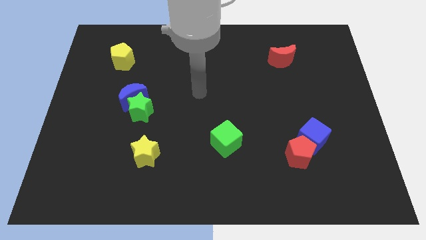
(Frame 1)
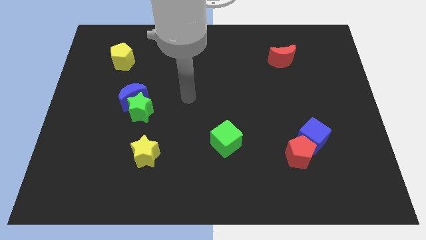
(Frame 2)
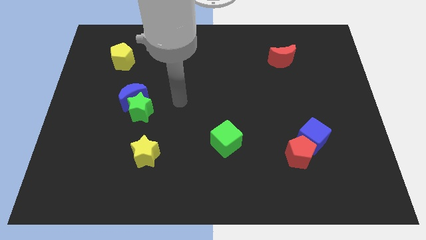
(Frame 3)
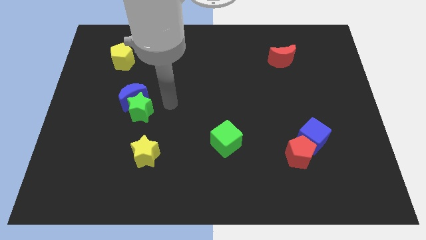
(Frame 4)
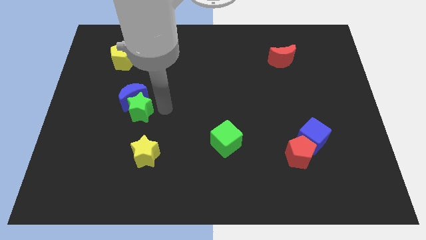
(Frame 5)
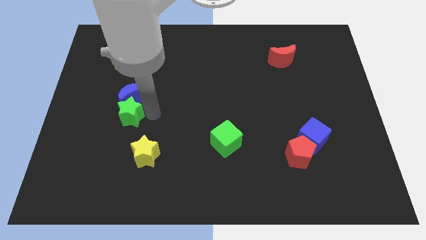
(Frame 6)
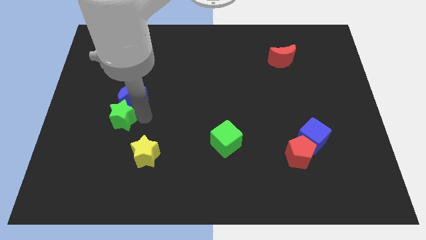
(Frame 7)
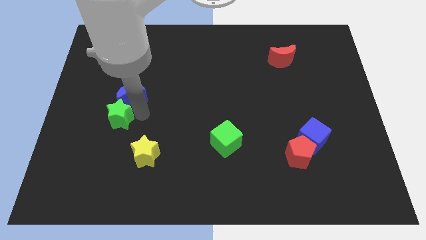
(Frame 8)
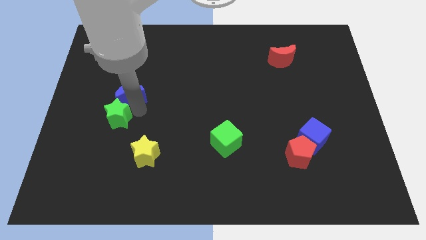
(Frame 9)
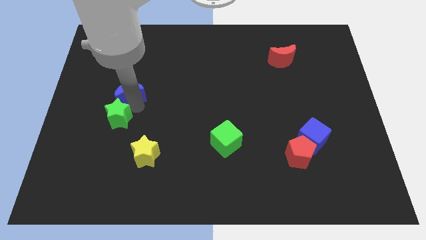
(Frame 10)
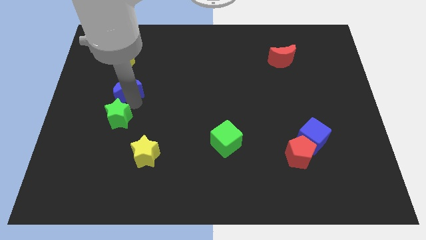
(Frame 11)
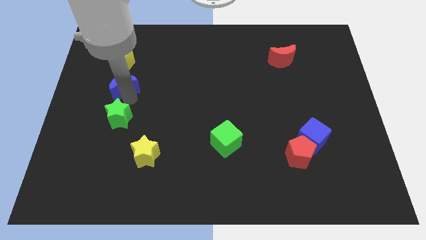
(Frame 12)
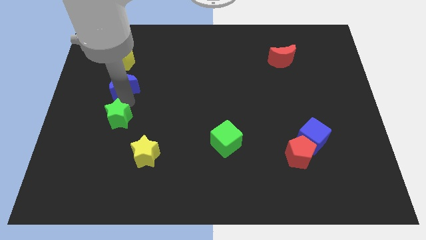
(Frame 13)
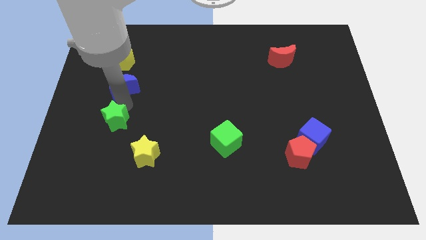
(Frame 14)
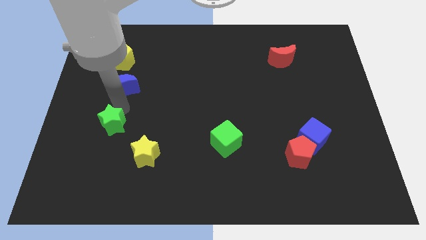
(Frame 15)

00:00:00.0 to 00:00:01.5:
separate the blue moon from the green star

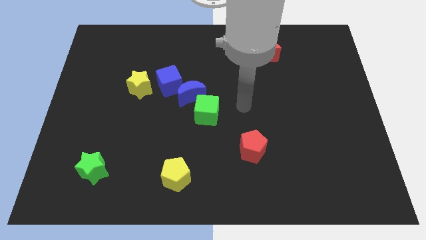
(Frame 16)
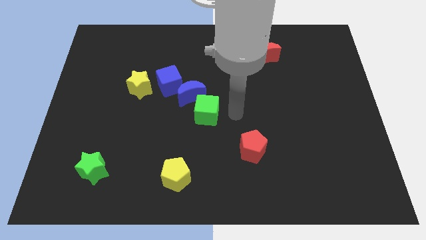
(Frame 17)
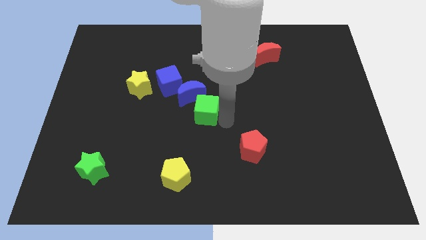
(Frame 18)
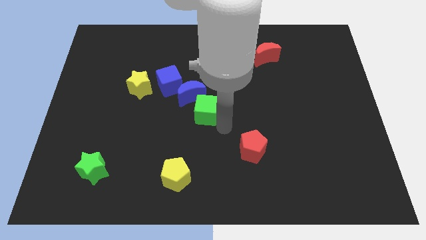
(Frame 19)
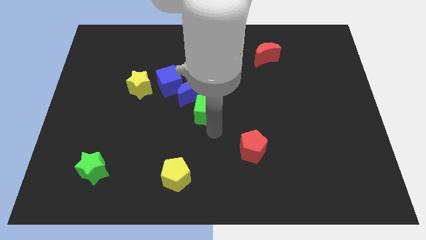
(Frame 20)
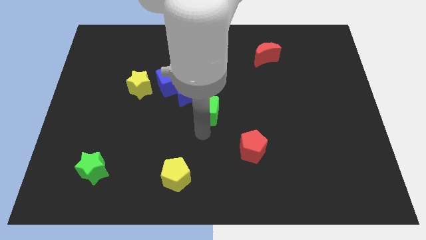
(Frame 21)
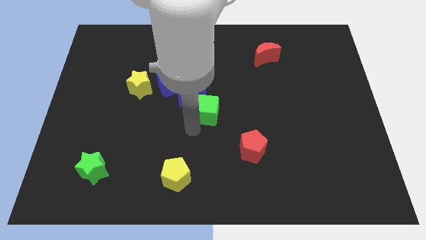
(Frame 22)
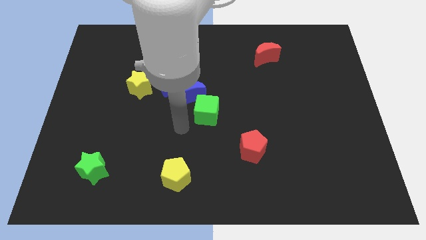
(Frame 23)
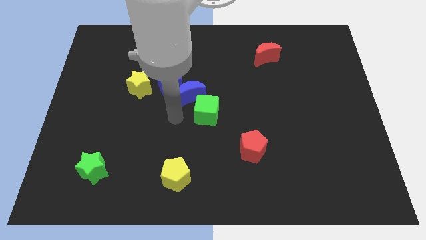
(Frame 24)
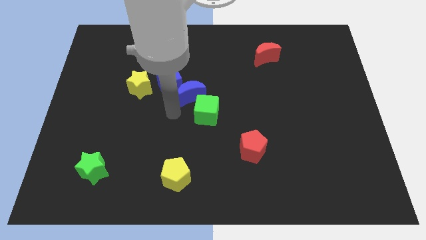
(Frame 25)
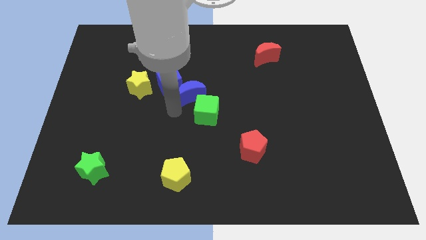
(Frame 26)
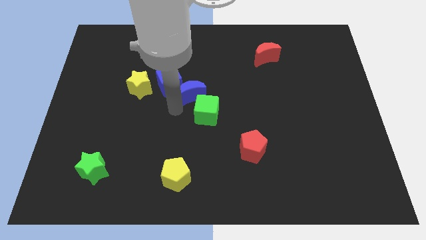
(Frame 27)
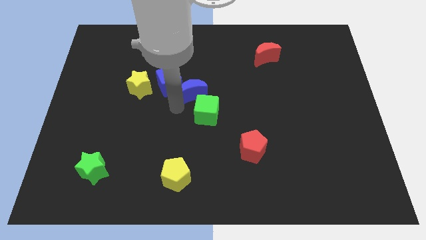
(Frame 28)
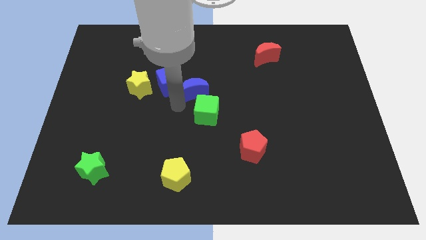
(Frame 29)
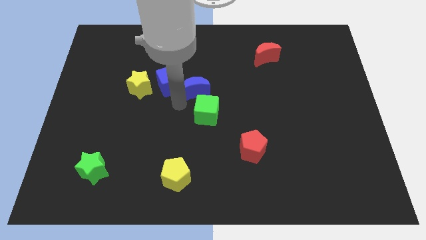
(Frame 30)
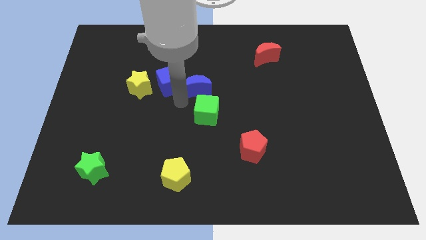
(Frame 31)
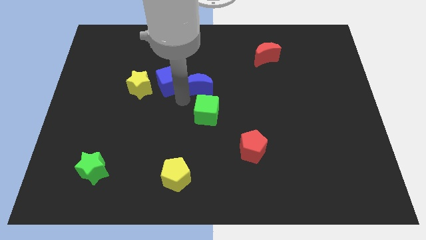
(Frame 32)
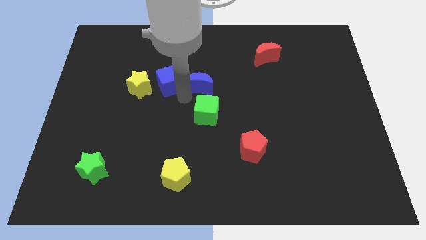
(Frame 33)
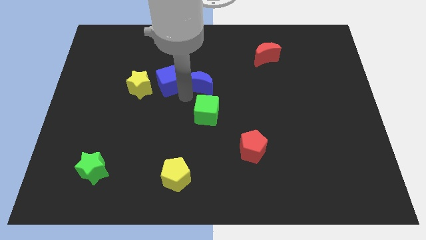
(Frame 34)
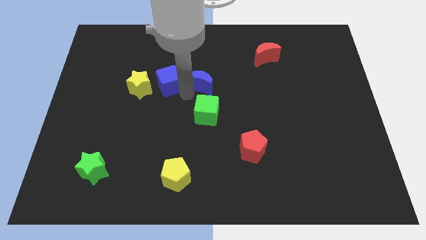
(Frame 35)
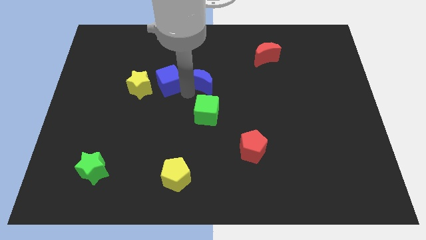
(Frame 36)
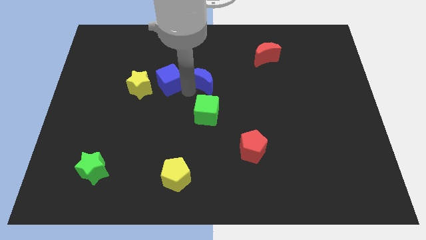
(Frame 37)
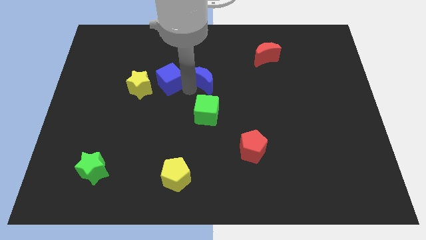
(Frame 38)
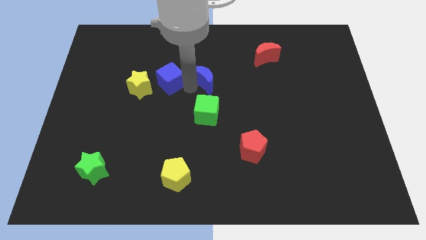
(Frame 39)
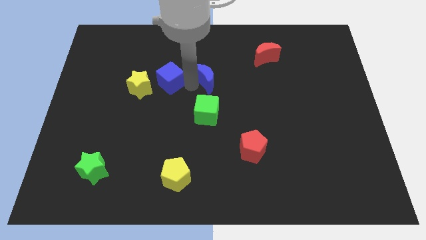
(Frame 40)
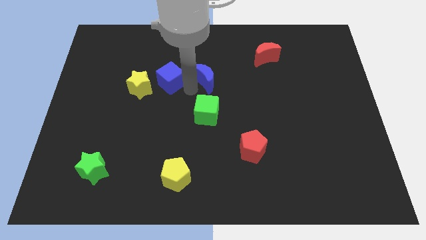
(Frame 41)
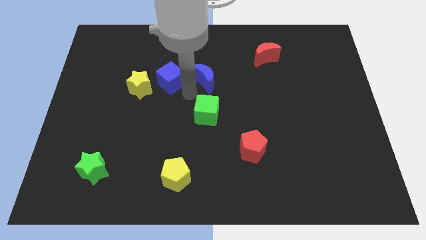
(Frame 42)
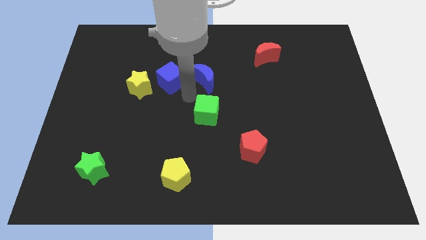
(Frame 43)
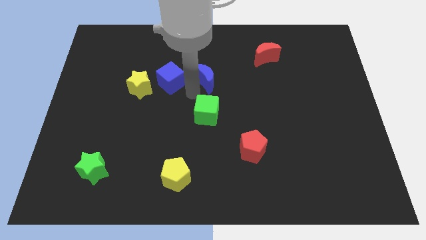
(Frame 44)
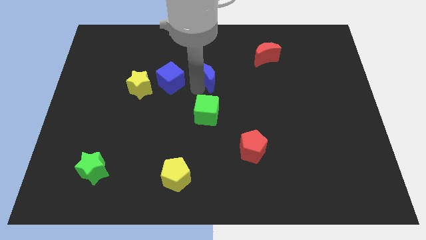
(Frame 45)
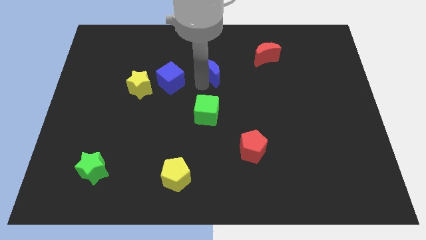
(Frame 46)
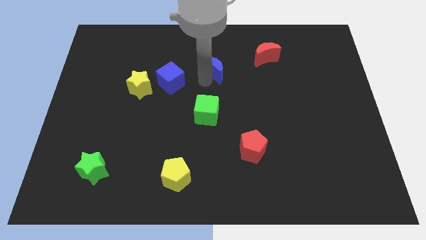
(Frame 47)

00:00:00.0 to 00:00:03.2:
move the blue moon away from the blue cube and green cube

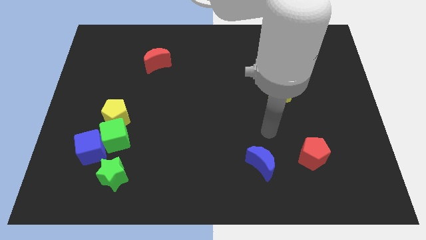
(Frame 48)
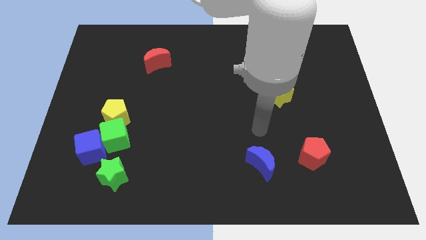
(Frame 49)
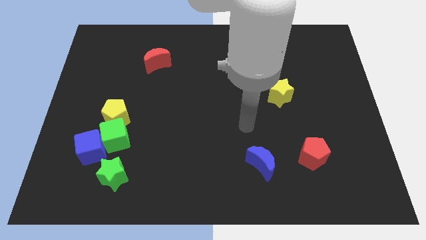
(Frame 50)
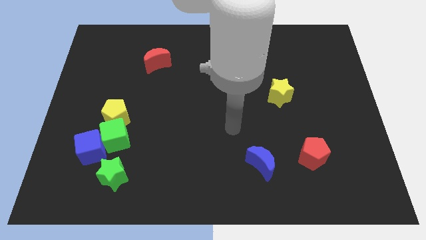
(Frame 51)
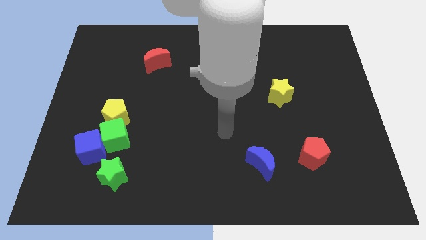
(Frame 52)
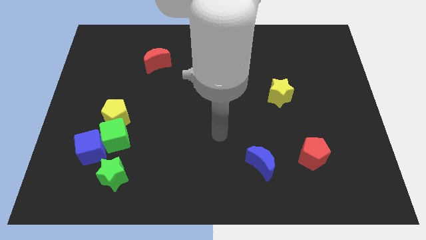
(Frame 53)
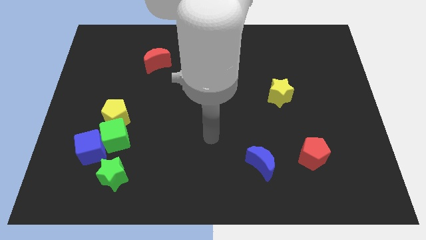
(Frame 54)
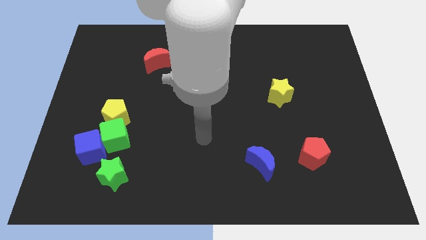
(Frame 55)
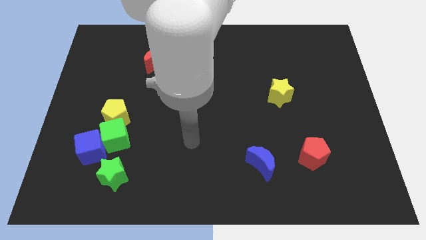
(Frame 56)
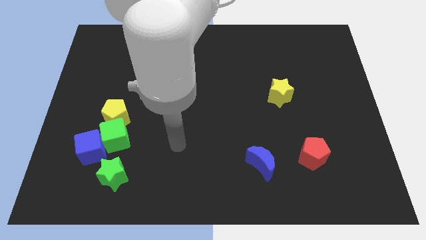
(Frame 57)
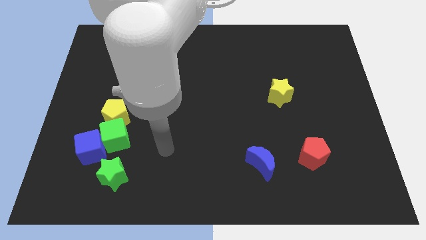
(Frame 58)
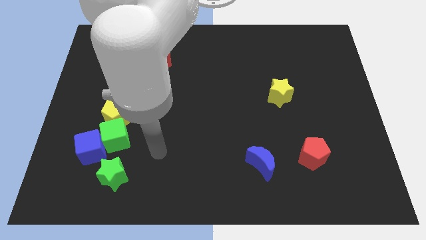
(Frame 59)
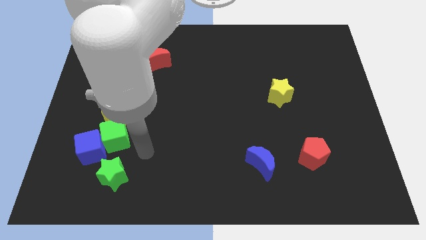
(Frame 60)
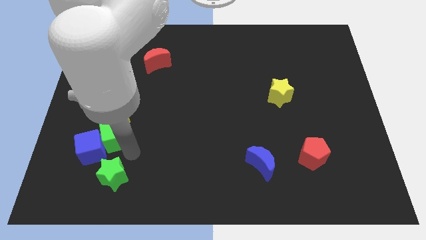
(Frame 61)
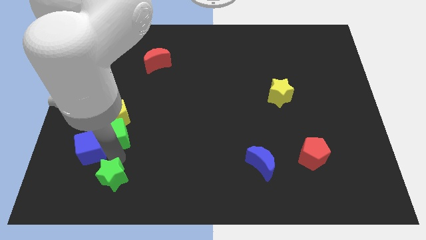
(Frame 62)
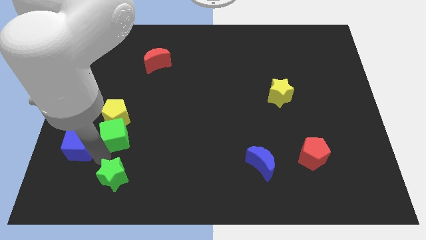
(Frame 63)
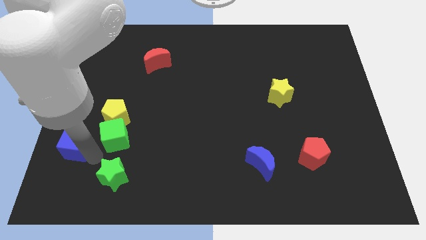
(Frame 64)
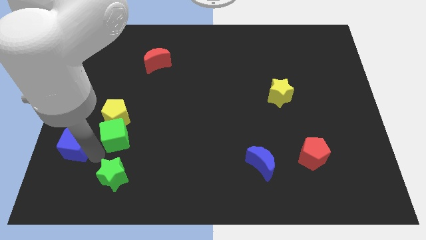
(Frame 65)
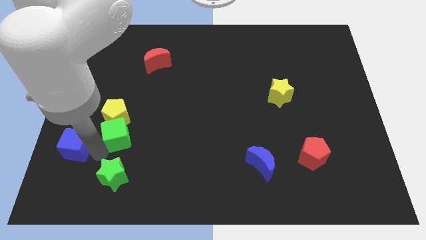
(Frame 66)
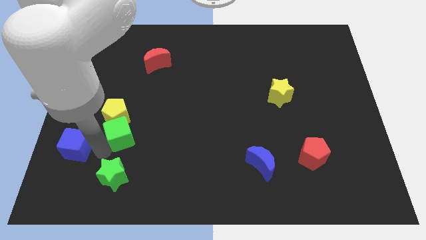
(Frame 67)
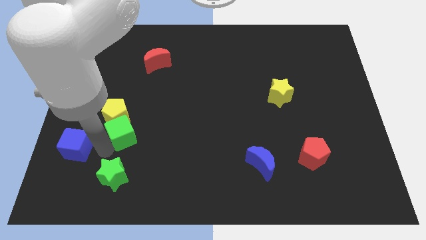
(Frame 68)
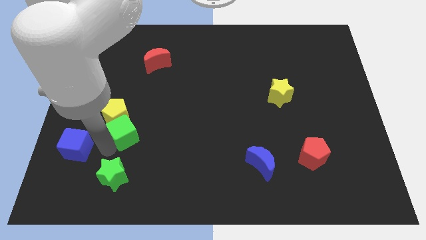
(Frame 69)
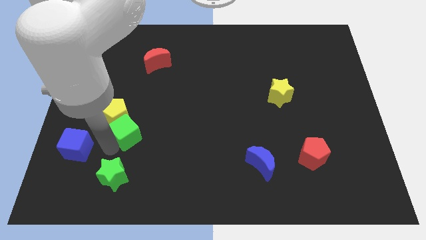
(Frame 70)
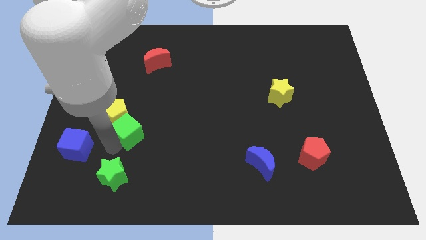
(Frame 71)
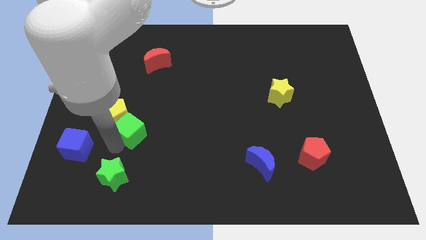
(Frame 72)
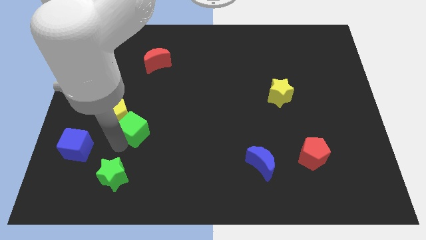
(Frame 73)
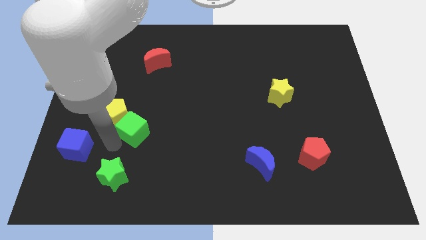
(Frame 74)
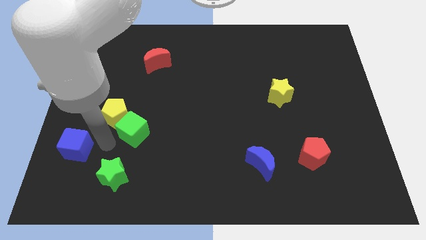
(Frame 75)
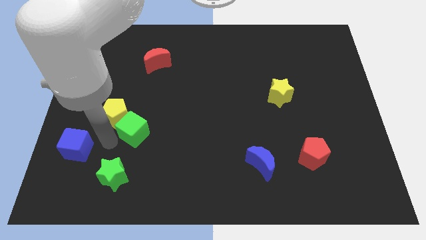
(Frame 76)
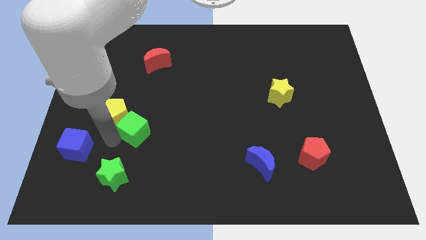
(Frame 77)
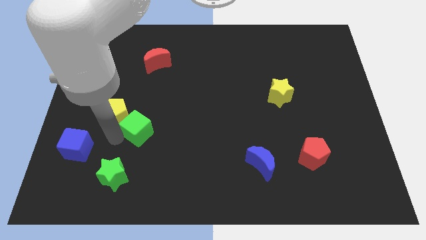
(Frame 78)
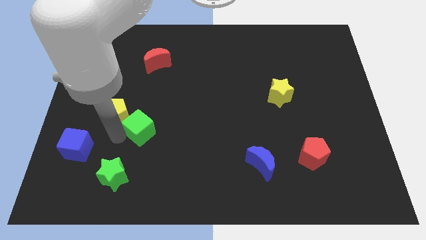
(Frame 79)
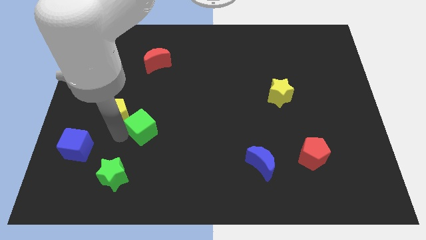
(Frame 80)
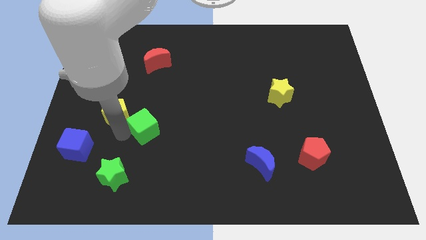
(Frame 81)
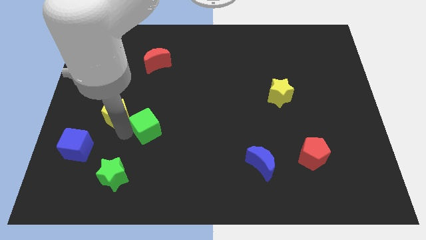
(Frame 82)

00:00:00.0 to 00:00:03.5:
pull the green cube apart from the clump

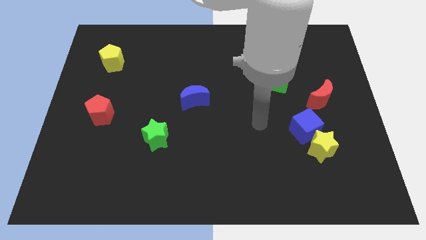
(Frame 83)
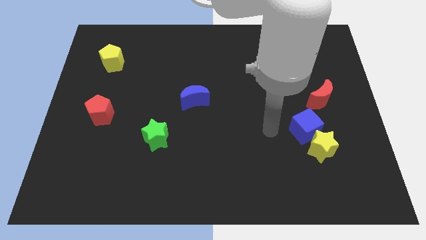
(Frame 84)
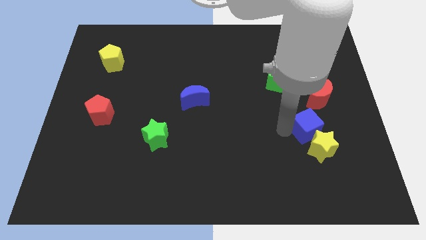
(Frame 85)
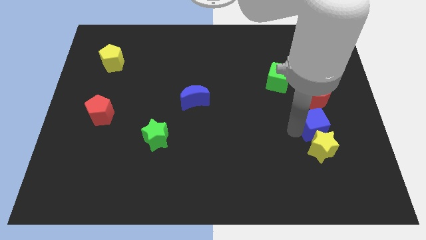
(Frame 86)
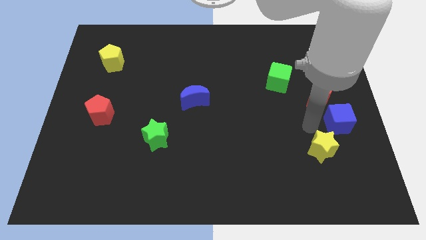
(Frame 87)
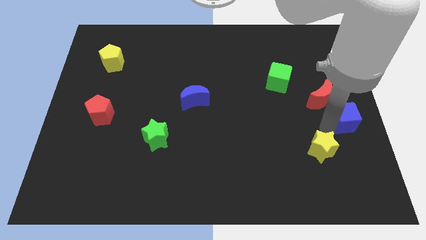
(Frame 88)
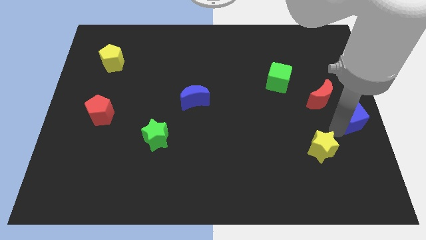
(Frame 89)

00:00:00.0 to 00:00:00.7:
pull the yellow star apart from the blue cube

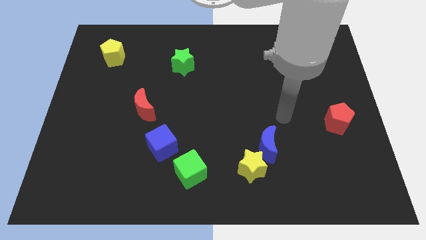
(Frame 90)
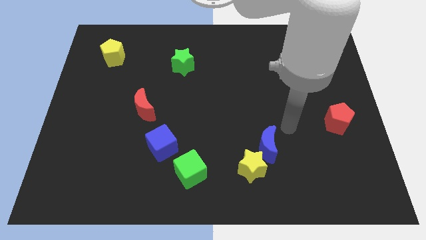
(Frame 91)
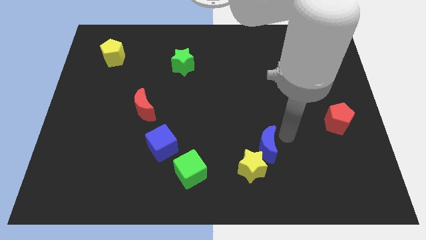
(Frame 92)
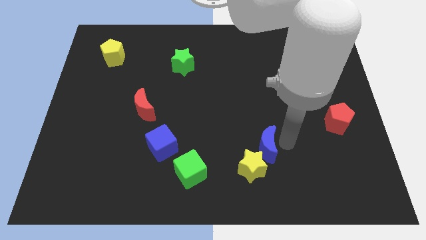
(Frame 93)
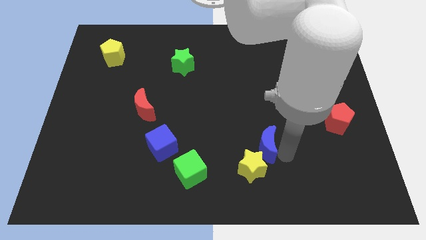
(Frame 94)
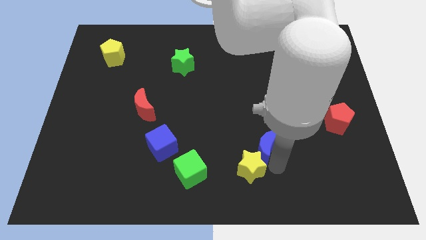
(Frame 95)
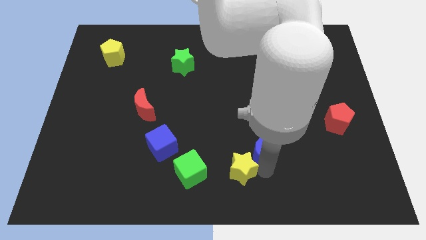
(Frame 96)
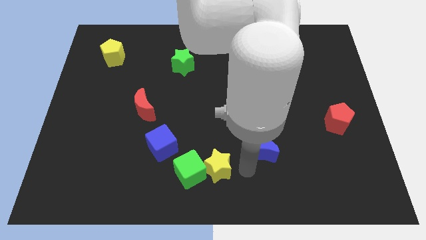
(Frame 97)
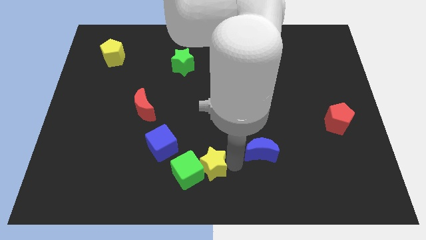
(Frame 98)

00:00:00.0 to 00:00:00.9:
separate the blue moon from the yellow star
